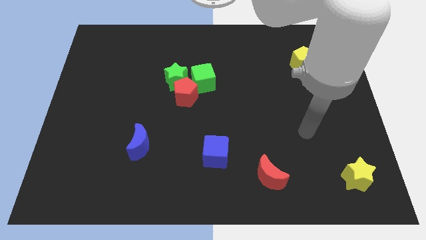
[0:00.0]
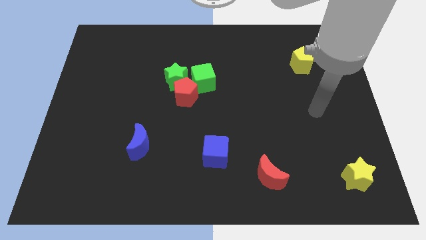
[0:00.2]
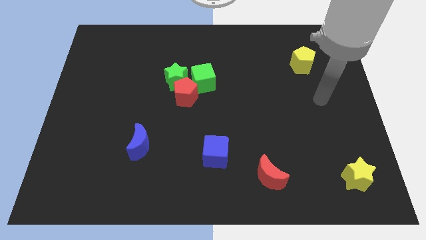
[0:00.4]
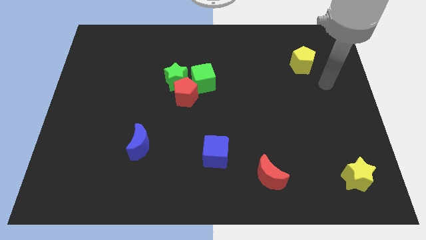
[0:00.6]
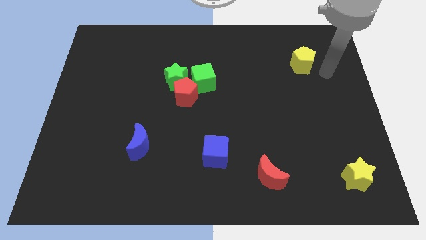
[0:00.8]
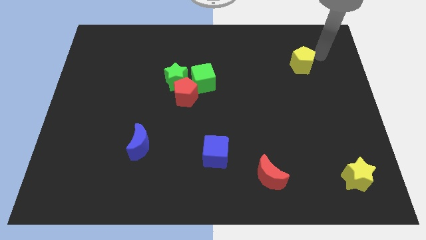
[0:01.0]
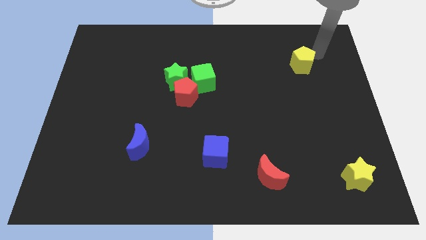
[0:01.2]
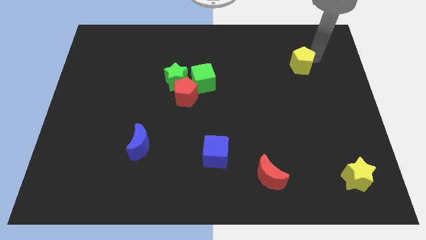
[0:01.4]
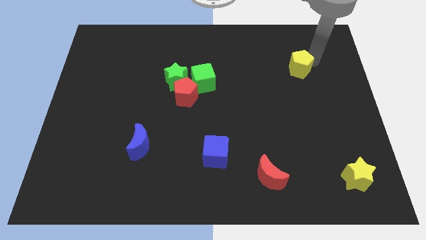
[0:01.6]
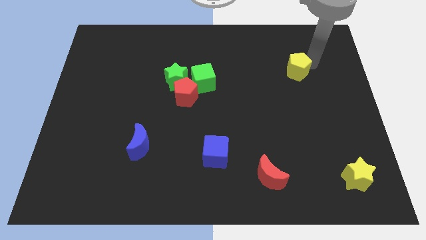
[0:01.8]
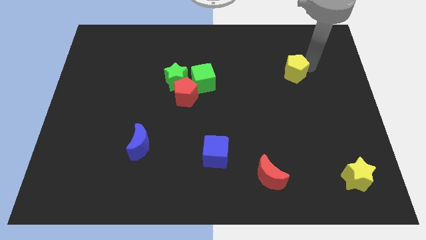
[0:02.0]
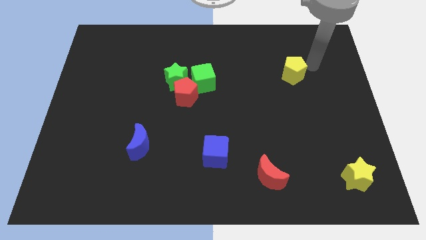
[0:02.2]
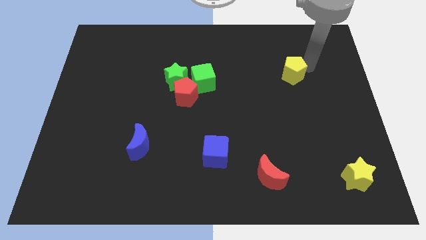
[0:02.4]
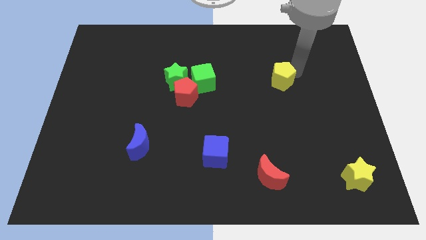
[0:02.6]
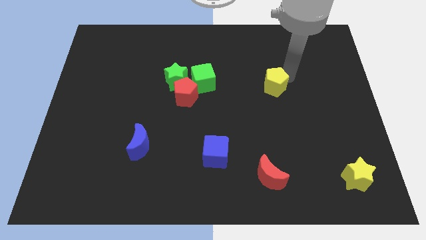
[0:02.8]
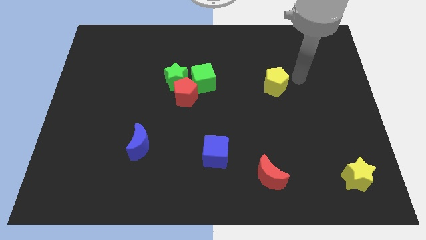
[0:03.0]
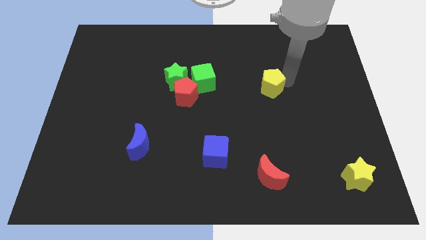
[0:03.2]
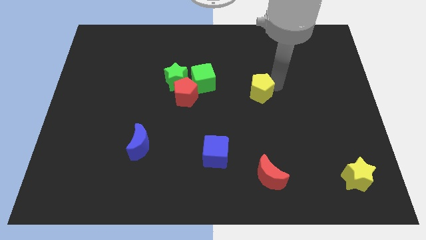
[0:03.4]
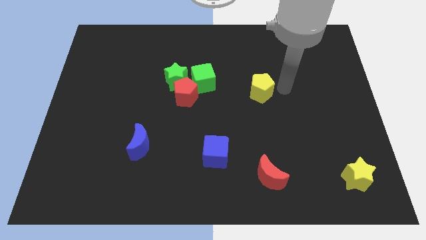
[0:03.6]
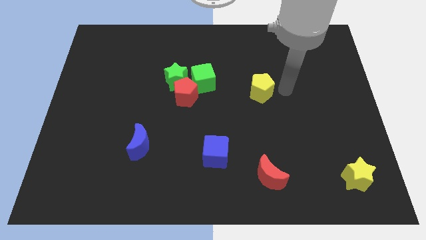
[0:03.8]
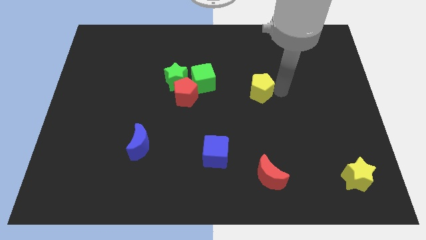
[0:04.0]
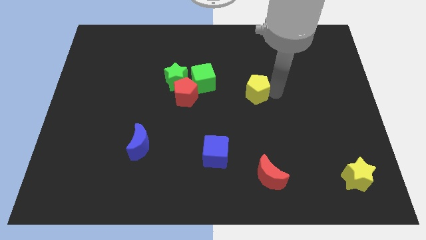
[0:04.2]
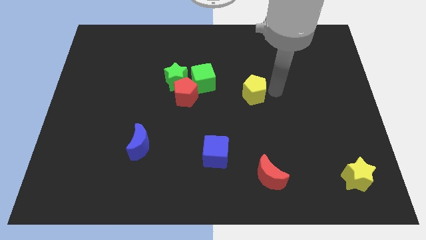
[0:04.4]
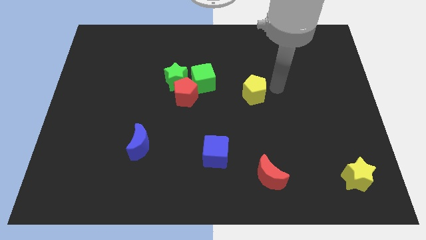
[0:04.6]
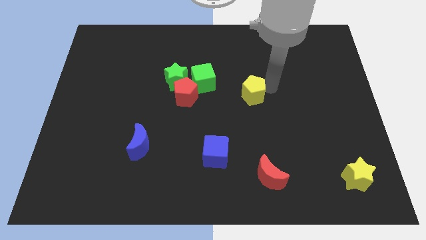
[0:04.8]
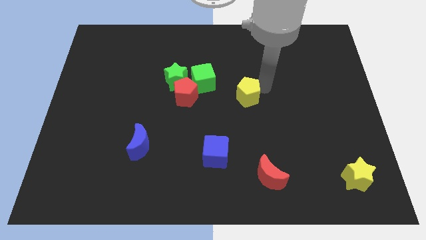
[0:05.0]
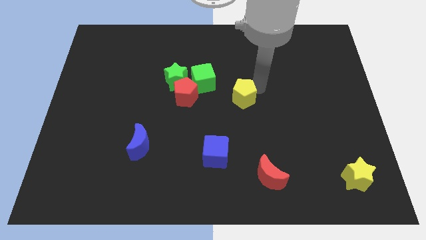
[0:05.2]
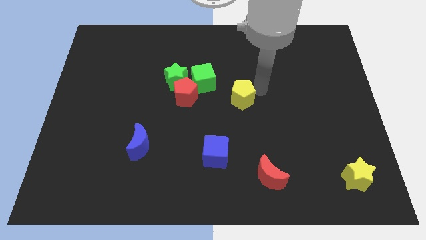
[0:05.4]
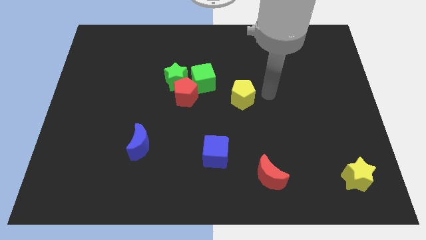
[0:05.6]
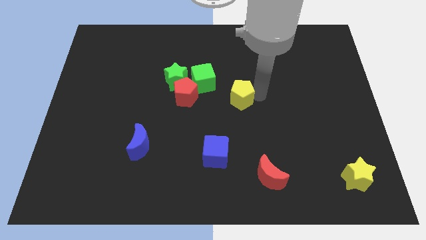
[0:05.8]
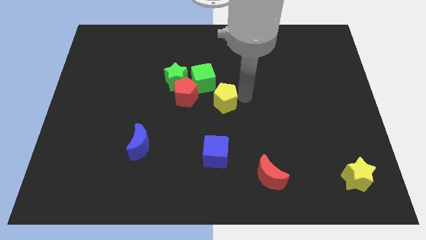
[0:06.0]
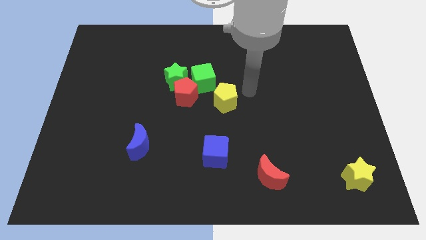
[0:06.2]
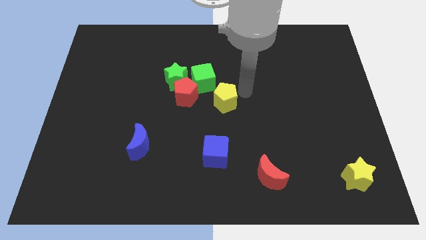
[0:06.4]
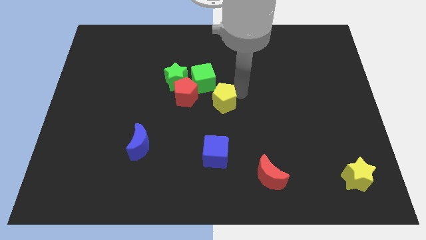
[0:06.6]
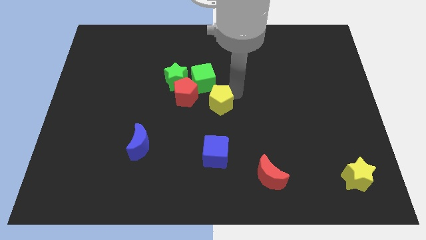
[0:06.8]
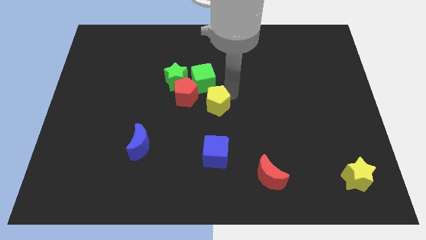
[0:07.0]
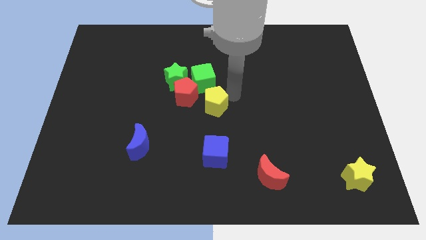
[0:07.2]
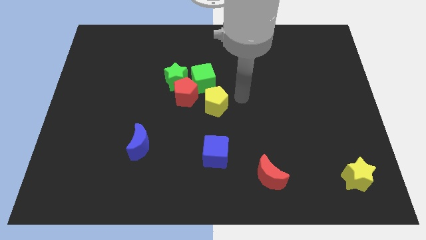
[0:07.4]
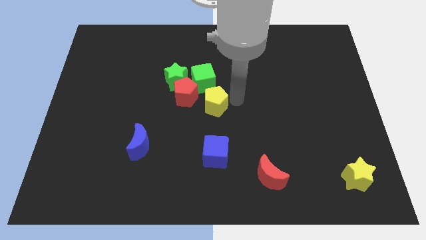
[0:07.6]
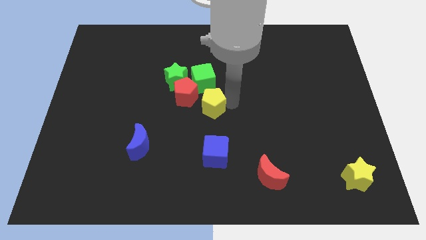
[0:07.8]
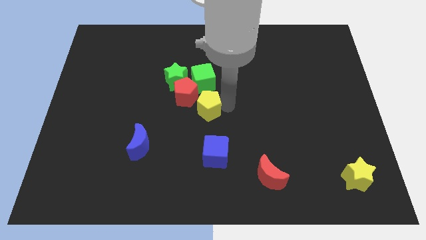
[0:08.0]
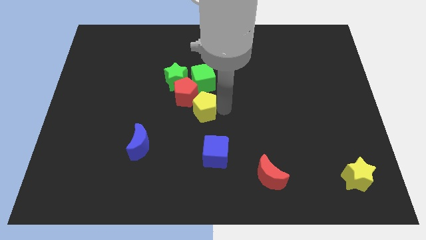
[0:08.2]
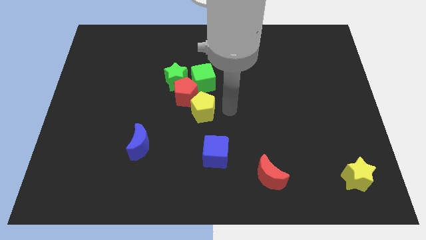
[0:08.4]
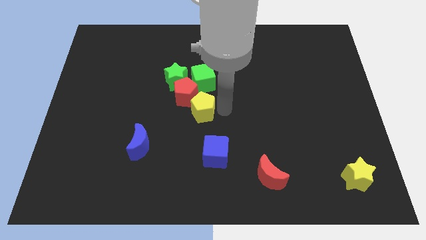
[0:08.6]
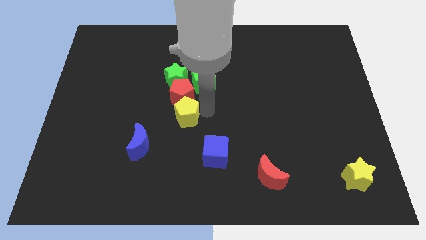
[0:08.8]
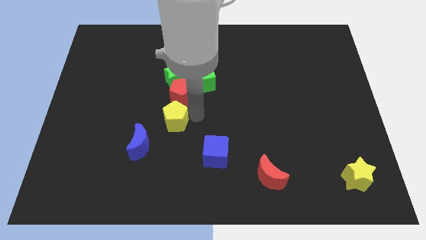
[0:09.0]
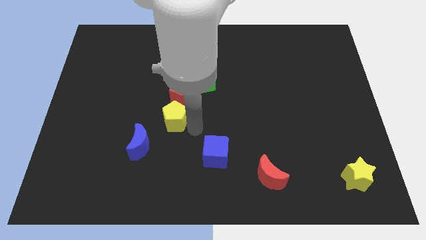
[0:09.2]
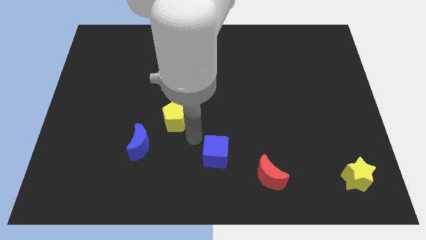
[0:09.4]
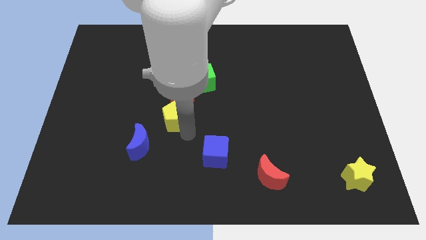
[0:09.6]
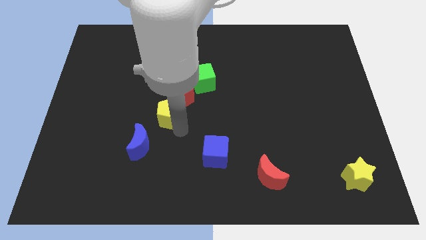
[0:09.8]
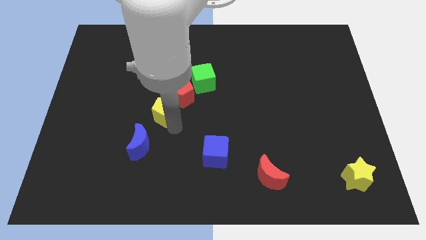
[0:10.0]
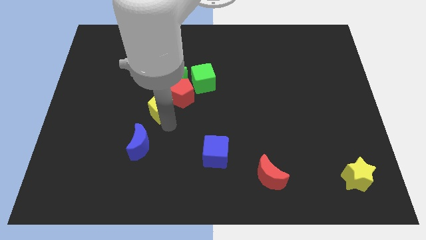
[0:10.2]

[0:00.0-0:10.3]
put the yellow pentagon to the bottom left of the green star

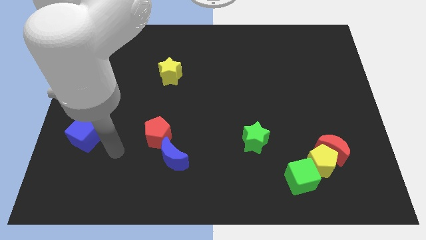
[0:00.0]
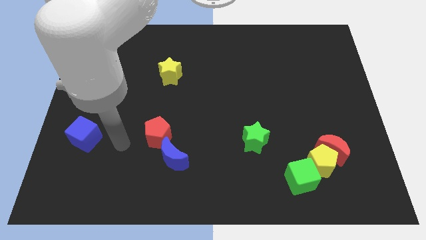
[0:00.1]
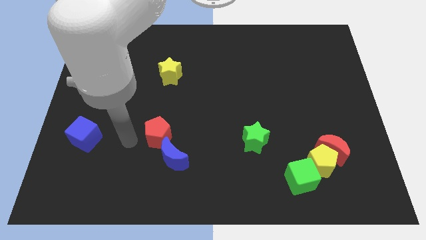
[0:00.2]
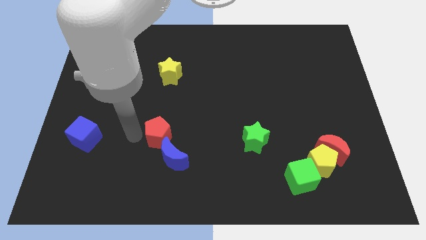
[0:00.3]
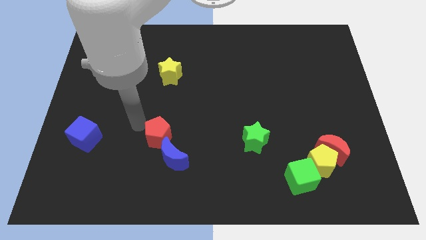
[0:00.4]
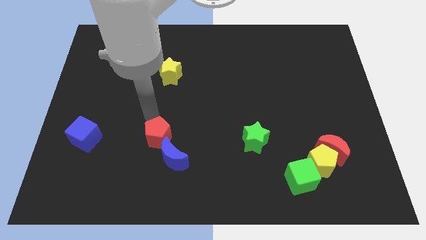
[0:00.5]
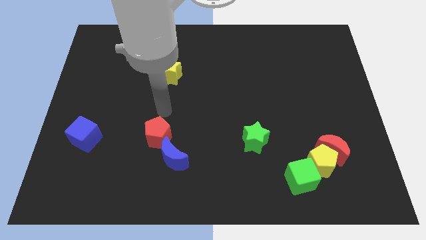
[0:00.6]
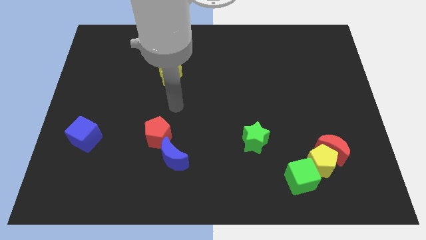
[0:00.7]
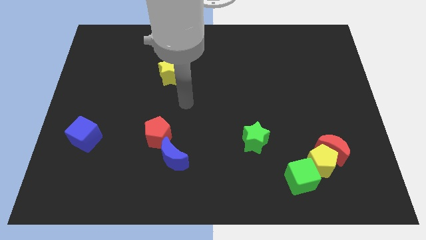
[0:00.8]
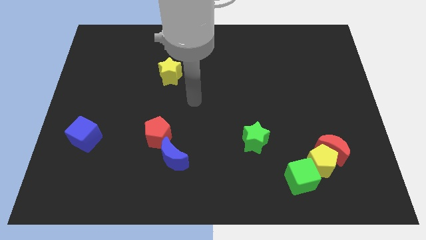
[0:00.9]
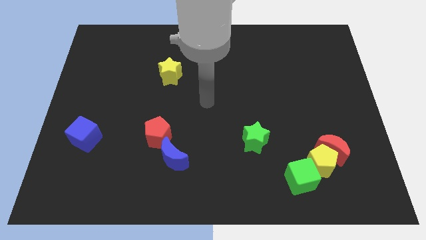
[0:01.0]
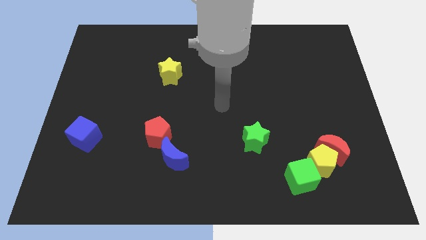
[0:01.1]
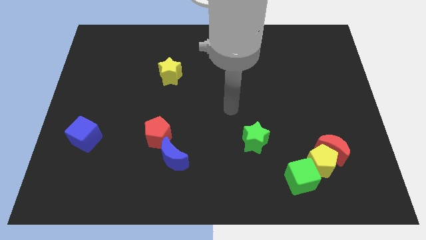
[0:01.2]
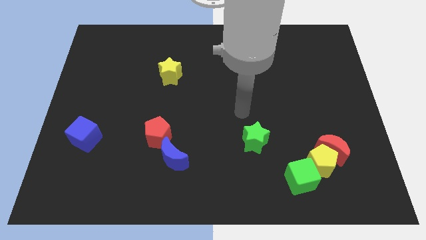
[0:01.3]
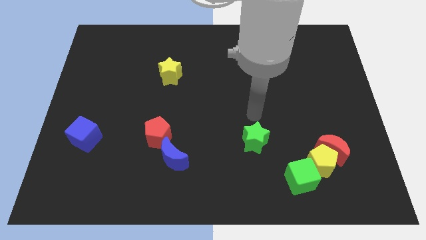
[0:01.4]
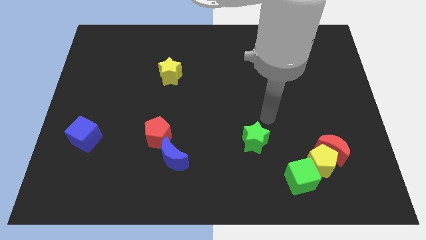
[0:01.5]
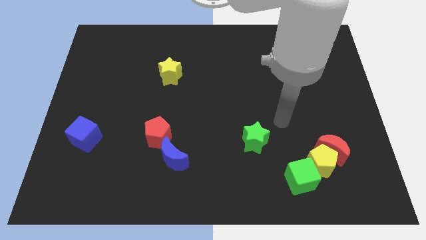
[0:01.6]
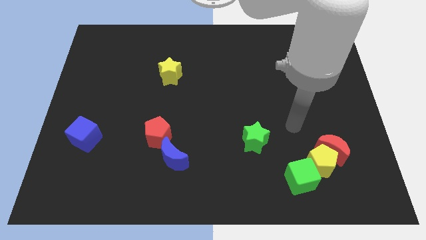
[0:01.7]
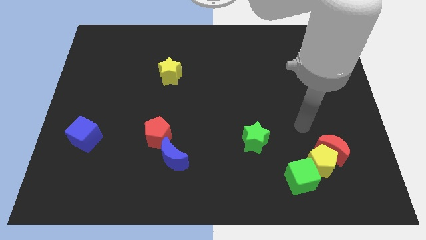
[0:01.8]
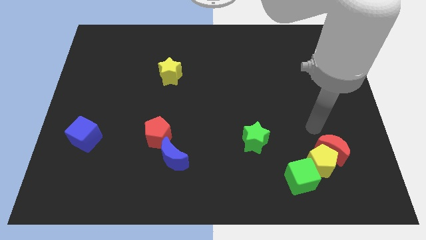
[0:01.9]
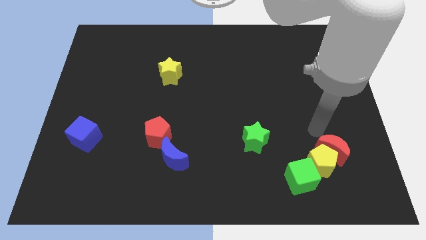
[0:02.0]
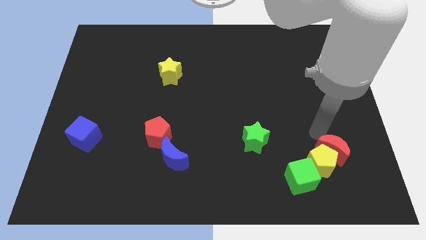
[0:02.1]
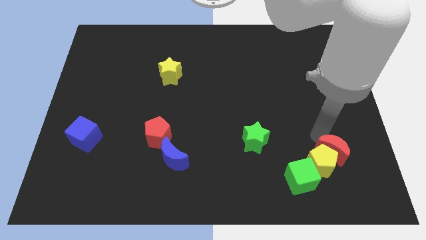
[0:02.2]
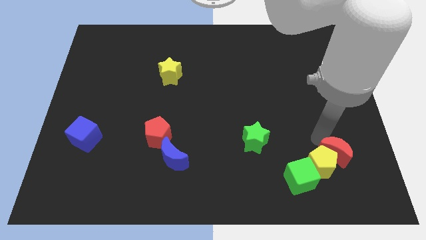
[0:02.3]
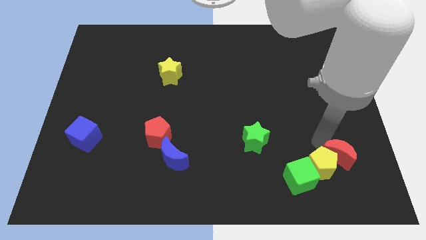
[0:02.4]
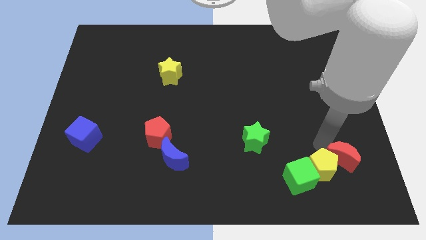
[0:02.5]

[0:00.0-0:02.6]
push the red moon just right of the green cube
